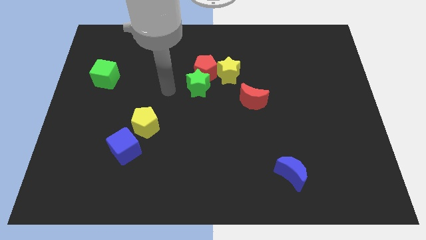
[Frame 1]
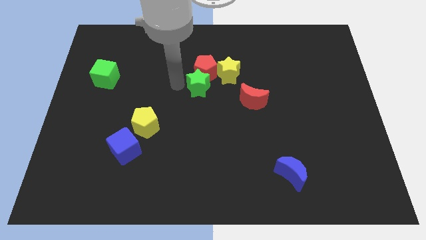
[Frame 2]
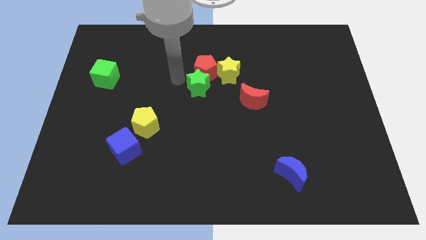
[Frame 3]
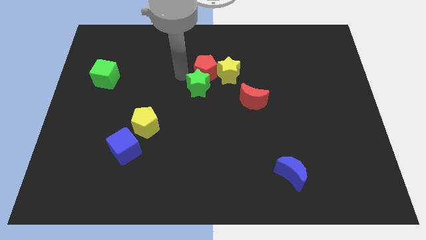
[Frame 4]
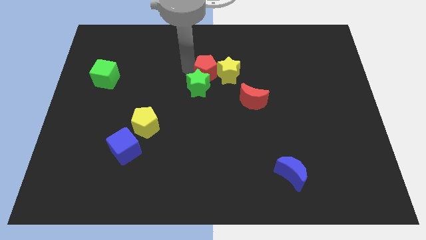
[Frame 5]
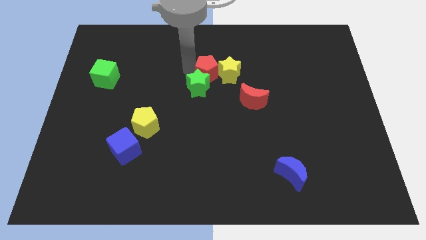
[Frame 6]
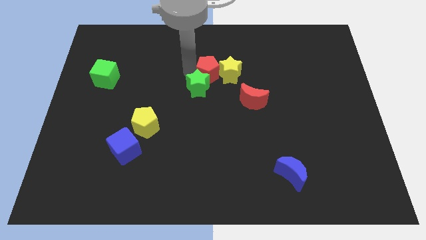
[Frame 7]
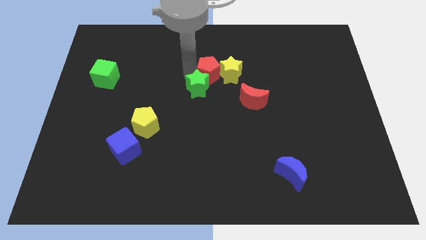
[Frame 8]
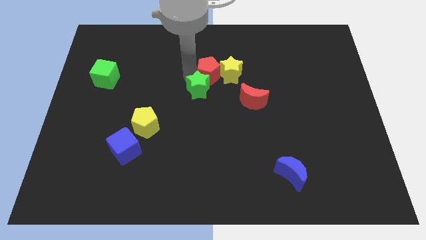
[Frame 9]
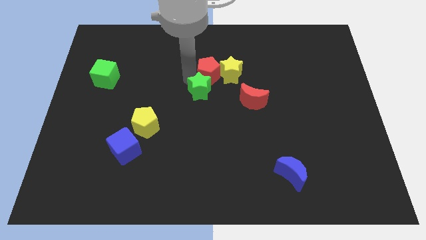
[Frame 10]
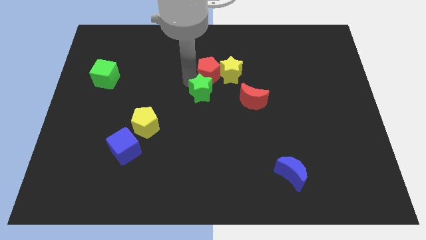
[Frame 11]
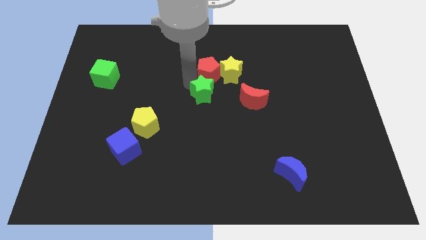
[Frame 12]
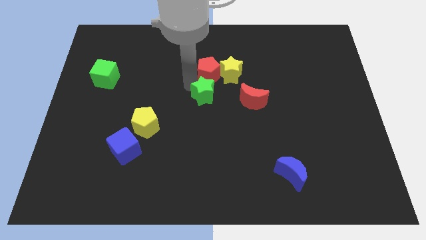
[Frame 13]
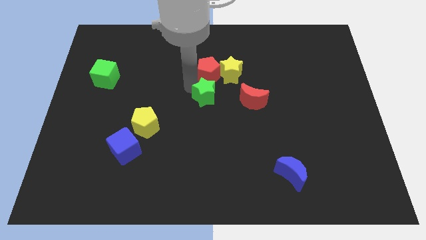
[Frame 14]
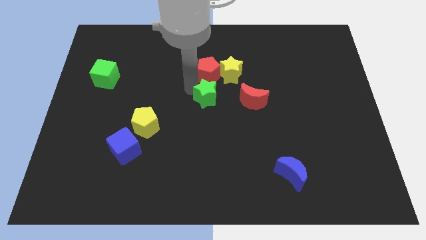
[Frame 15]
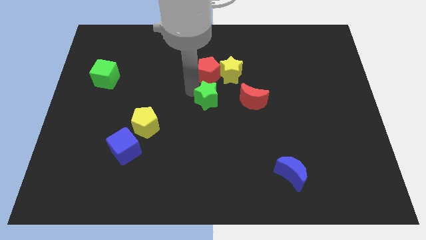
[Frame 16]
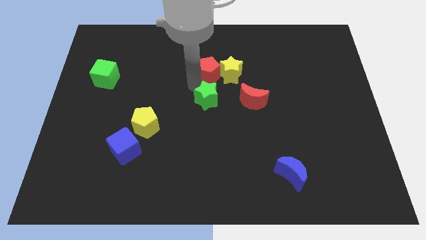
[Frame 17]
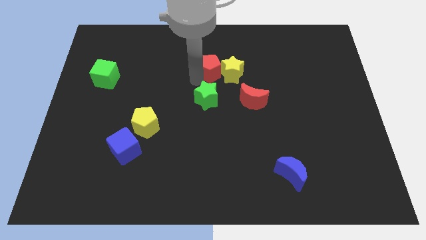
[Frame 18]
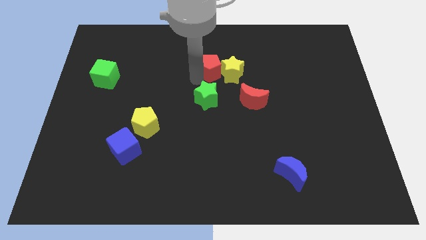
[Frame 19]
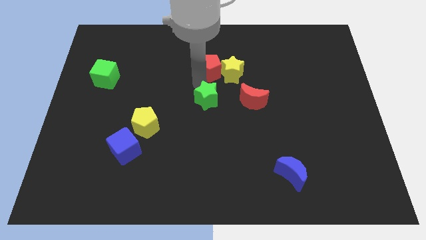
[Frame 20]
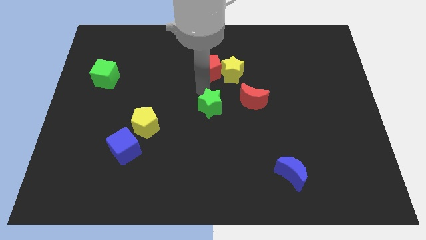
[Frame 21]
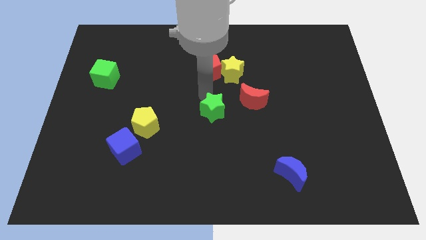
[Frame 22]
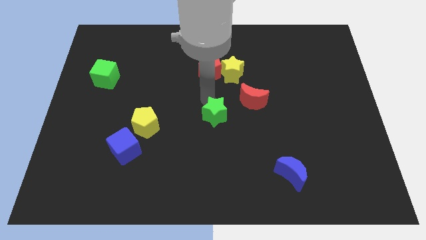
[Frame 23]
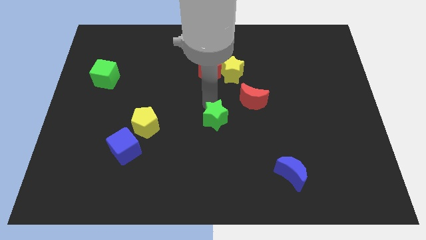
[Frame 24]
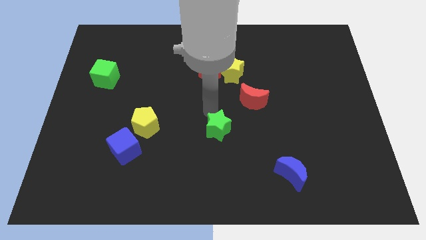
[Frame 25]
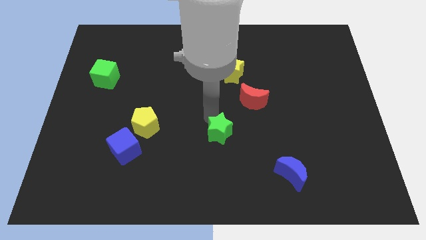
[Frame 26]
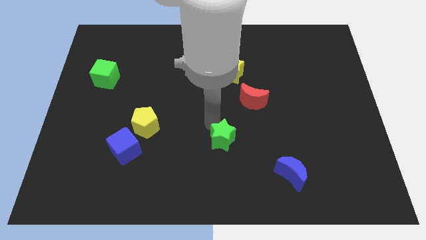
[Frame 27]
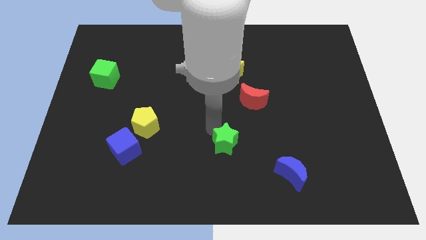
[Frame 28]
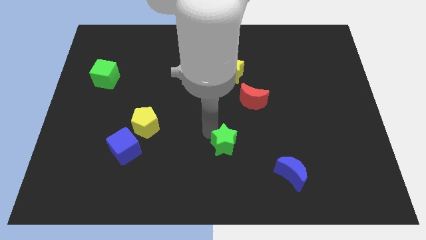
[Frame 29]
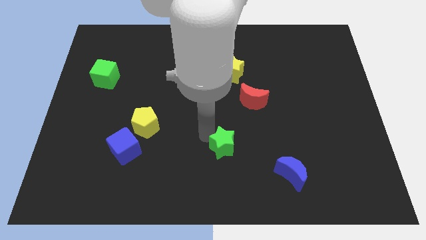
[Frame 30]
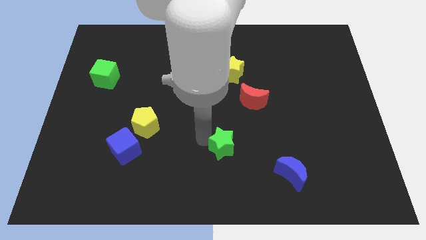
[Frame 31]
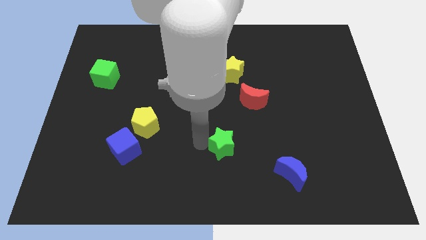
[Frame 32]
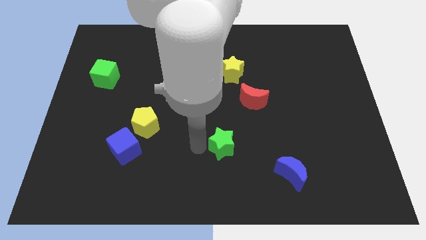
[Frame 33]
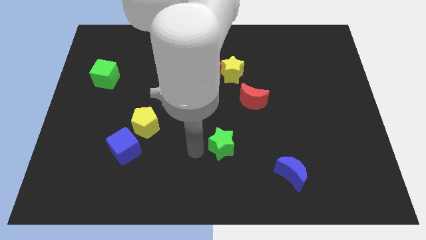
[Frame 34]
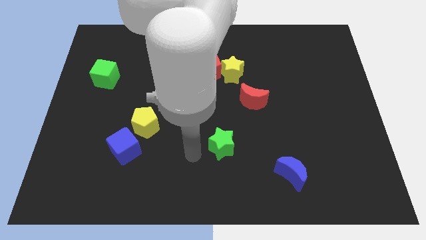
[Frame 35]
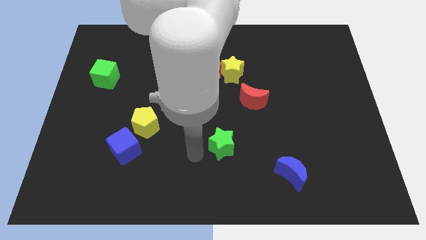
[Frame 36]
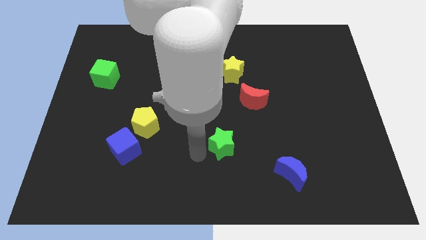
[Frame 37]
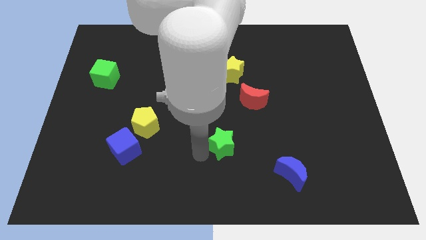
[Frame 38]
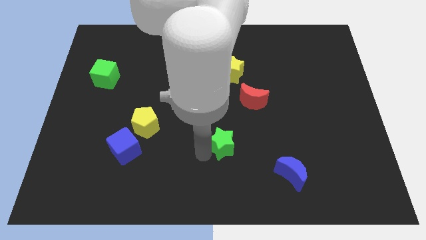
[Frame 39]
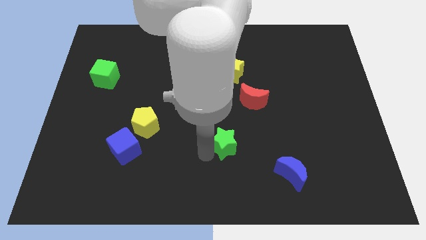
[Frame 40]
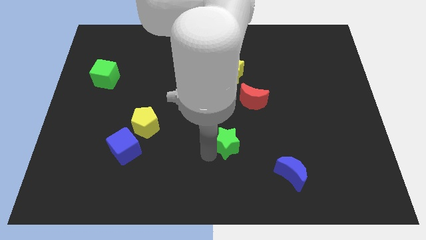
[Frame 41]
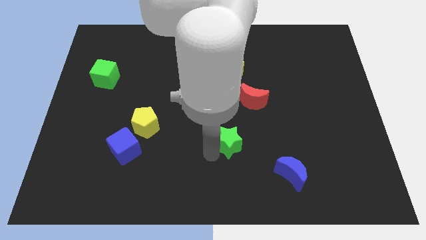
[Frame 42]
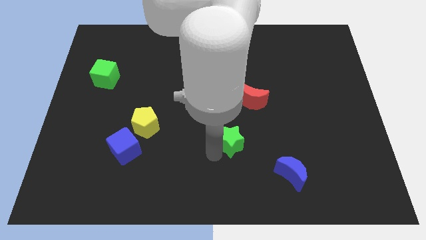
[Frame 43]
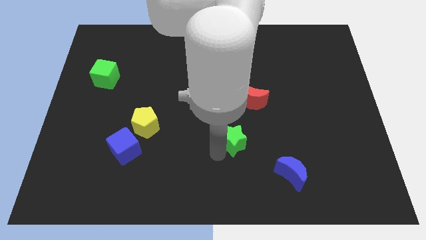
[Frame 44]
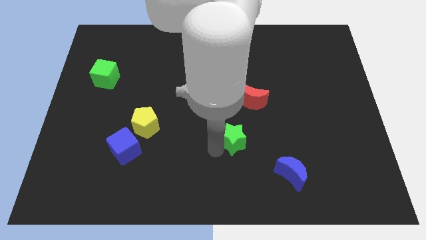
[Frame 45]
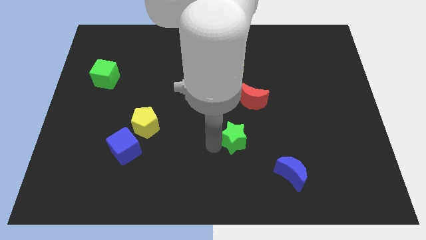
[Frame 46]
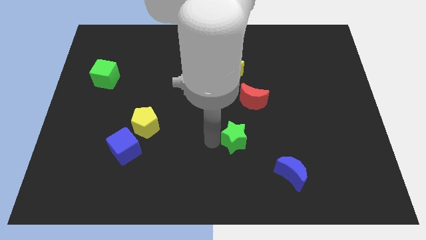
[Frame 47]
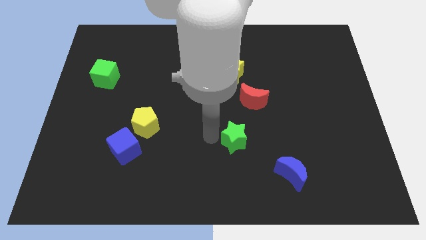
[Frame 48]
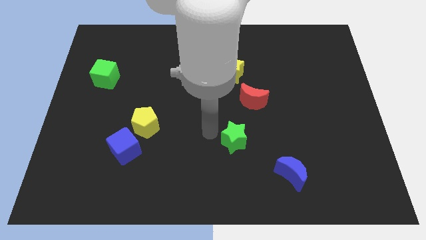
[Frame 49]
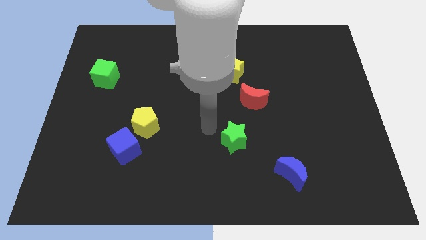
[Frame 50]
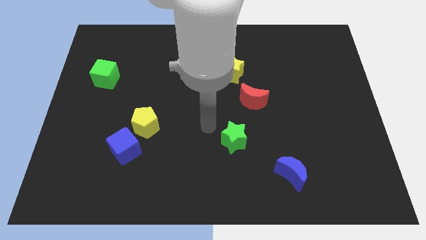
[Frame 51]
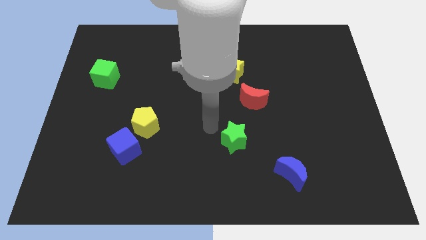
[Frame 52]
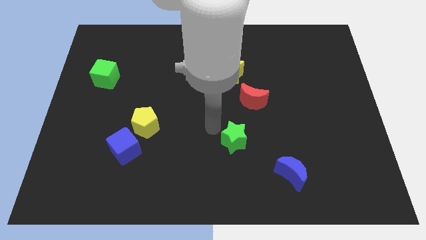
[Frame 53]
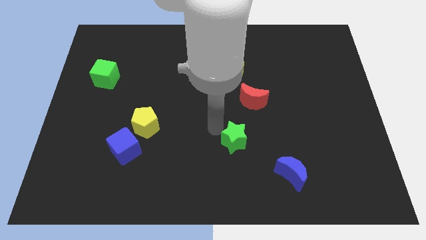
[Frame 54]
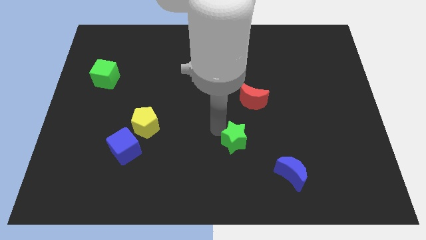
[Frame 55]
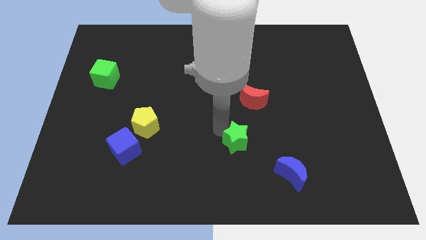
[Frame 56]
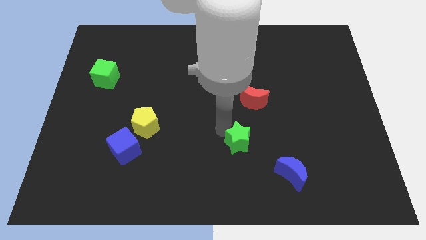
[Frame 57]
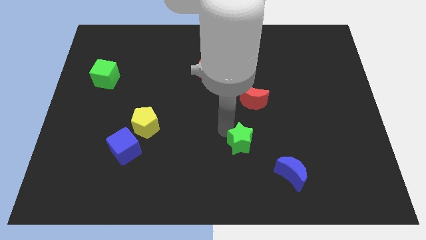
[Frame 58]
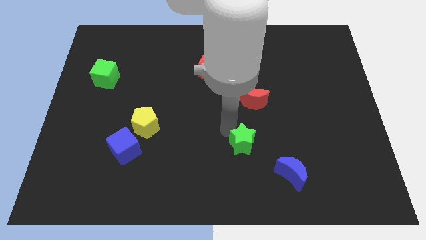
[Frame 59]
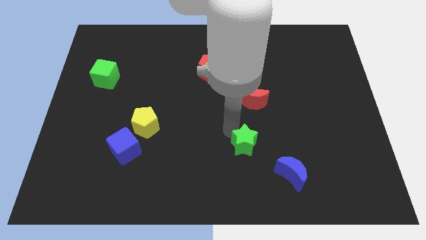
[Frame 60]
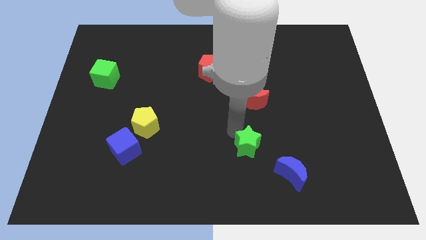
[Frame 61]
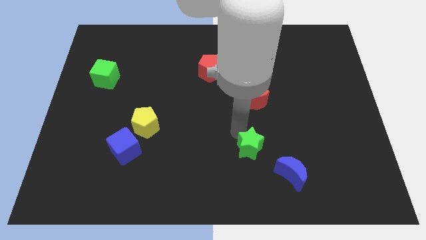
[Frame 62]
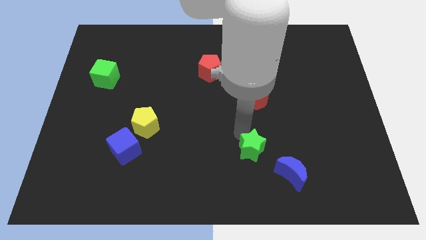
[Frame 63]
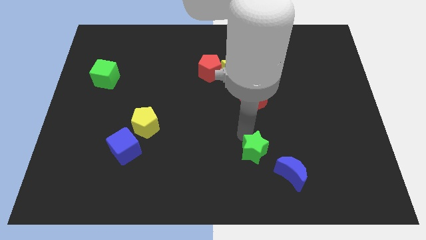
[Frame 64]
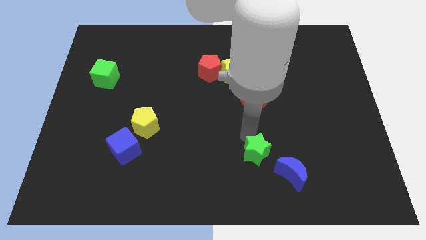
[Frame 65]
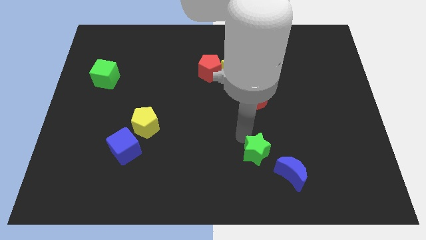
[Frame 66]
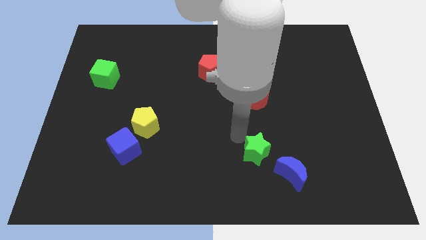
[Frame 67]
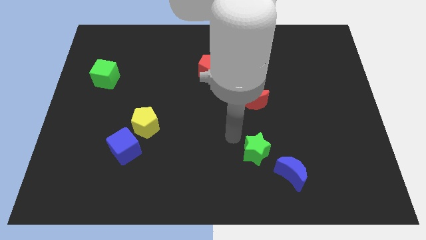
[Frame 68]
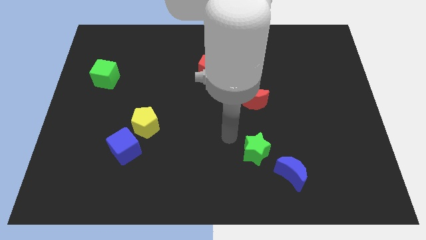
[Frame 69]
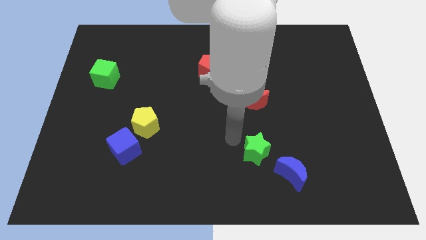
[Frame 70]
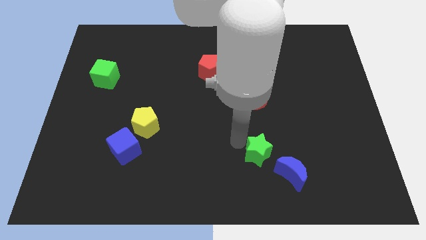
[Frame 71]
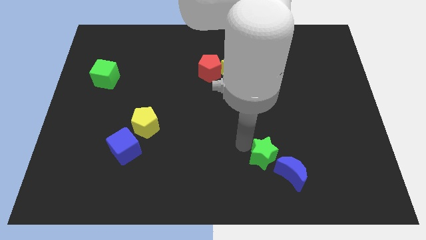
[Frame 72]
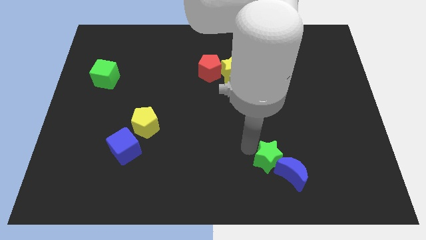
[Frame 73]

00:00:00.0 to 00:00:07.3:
move the green star to the blue moon

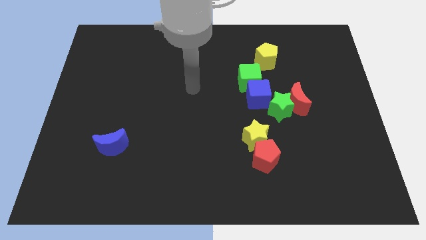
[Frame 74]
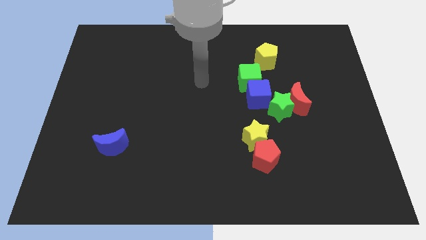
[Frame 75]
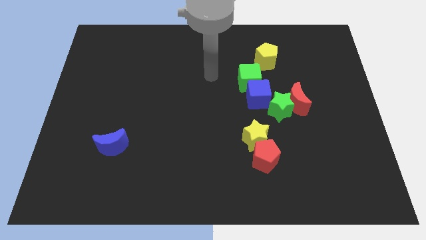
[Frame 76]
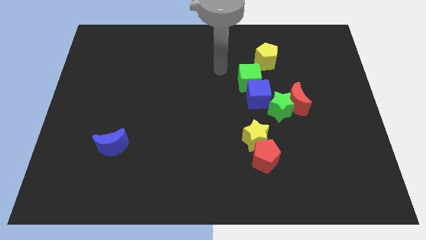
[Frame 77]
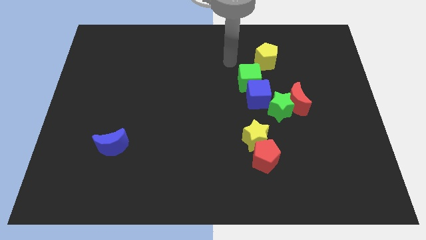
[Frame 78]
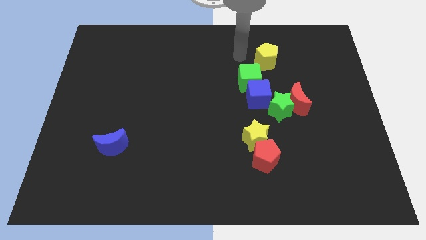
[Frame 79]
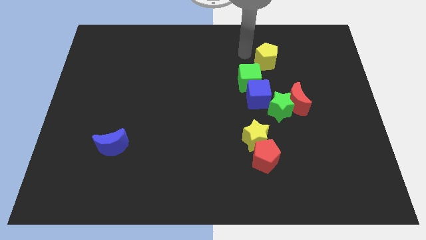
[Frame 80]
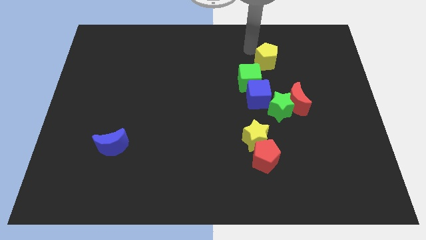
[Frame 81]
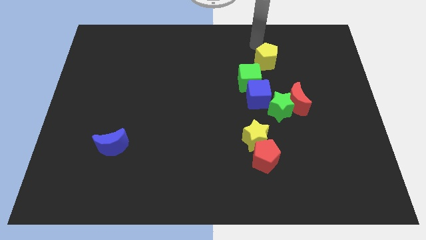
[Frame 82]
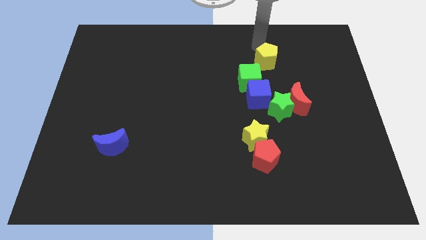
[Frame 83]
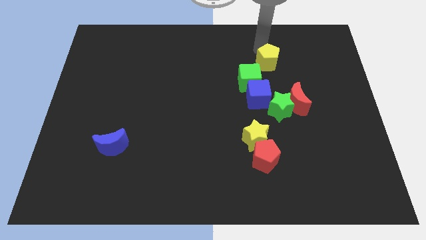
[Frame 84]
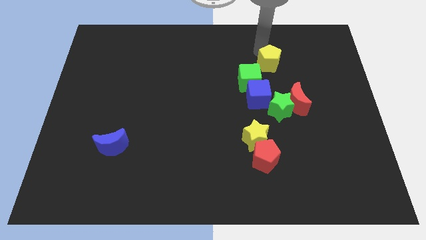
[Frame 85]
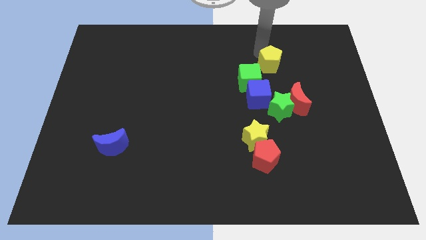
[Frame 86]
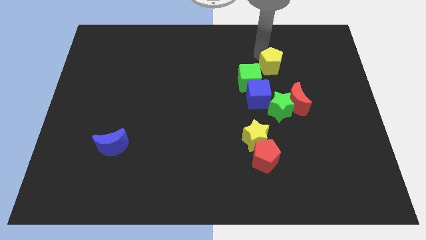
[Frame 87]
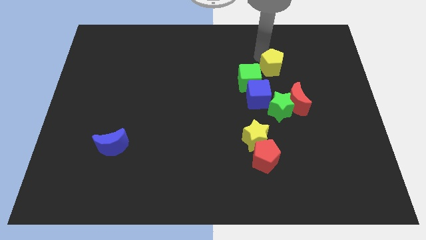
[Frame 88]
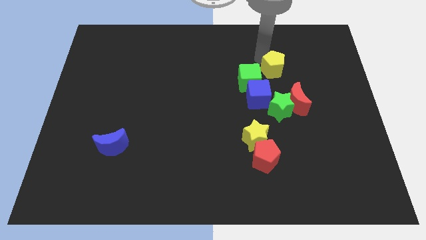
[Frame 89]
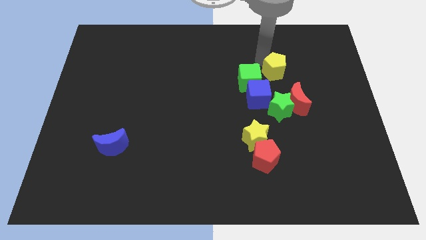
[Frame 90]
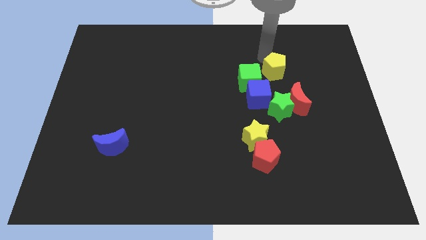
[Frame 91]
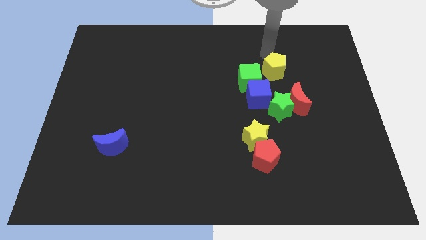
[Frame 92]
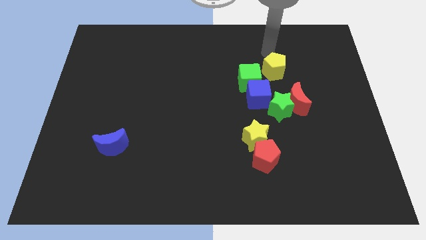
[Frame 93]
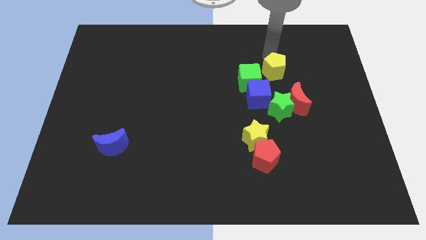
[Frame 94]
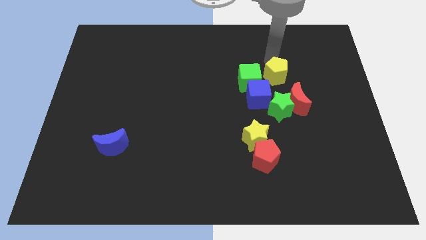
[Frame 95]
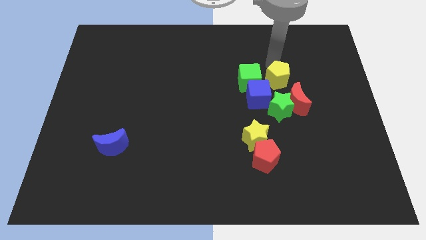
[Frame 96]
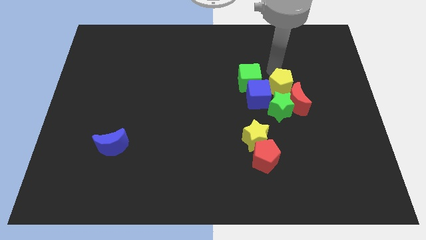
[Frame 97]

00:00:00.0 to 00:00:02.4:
slide the yellow pentagon next to the red moon
